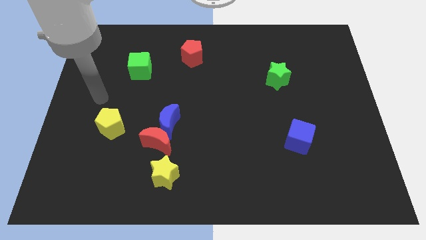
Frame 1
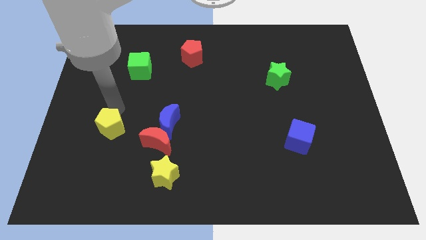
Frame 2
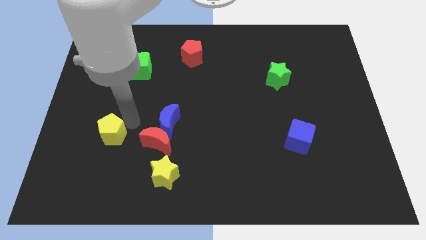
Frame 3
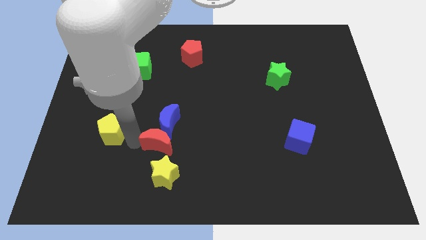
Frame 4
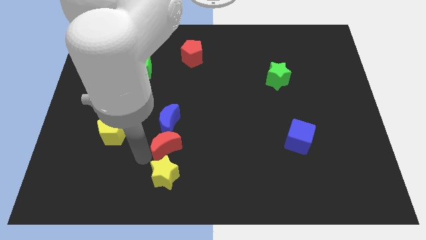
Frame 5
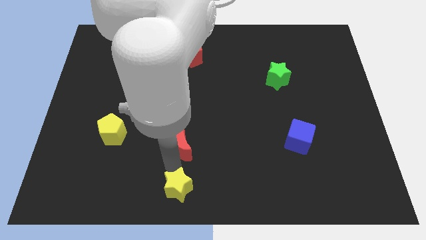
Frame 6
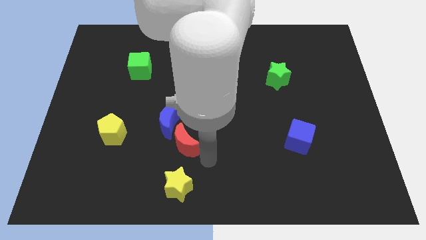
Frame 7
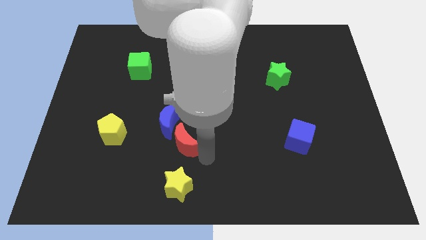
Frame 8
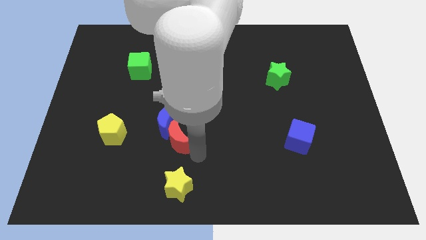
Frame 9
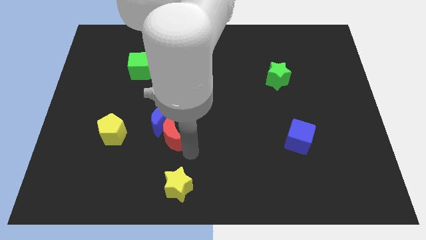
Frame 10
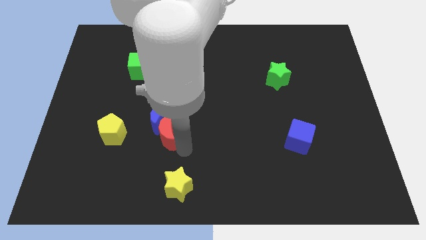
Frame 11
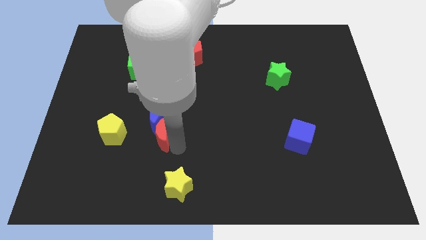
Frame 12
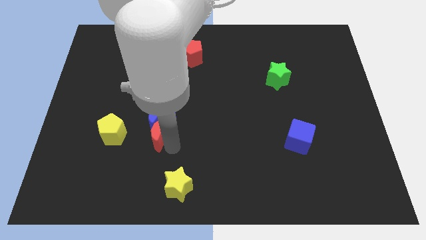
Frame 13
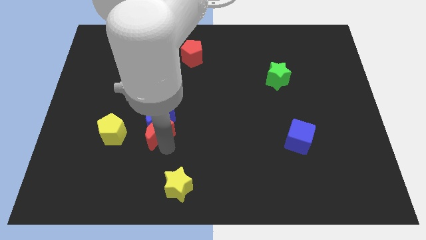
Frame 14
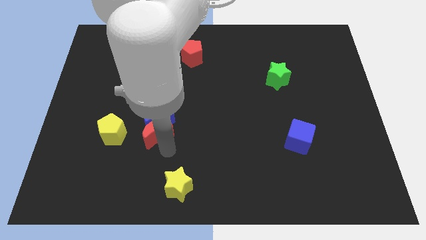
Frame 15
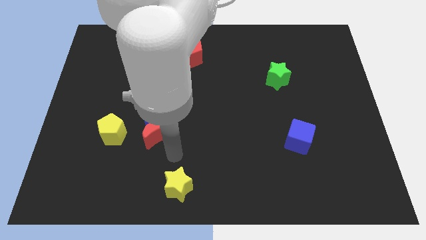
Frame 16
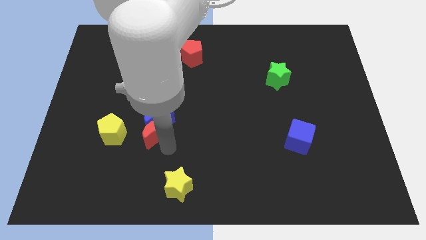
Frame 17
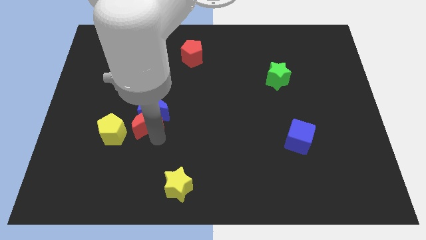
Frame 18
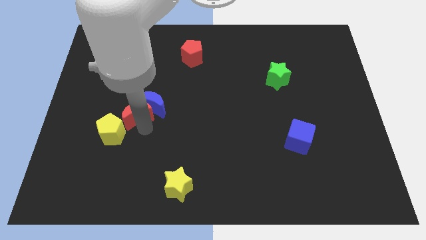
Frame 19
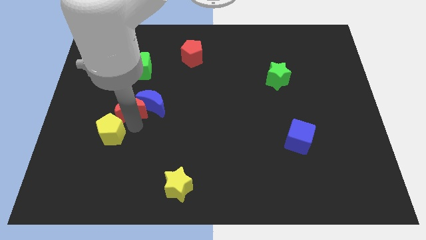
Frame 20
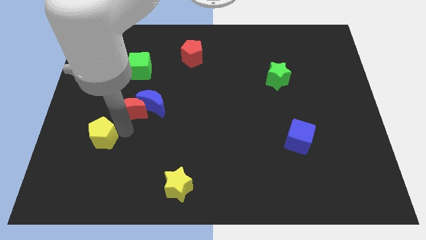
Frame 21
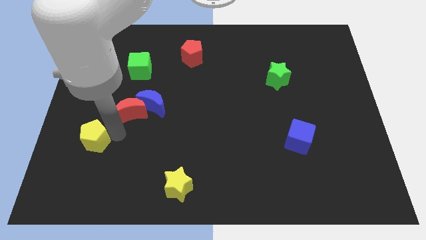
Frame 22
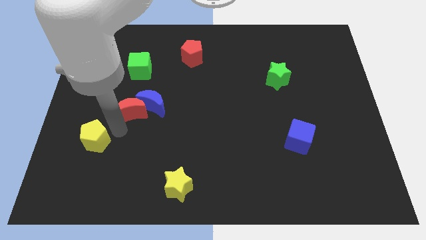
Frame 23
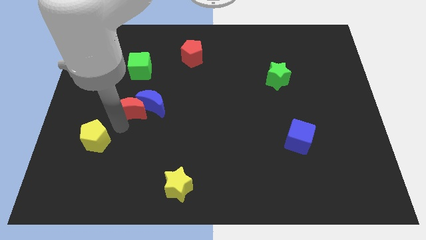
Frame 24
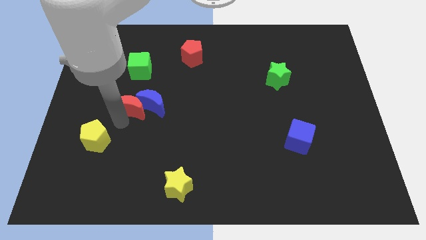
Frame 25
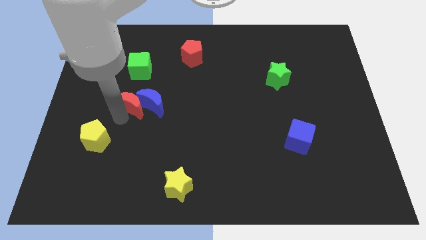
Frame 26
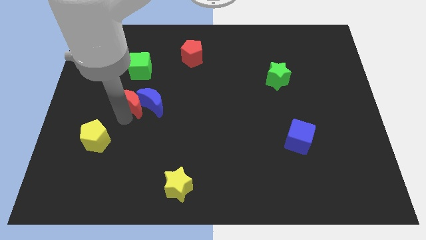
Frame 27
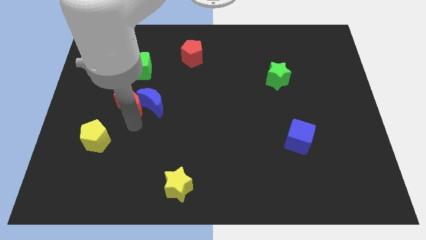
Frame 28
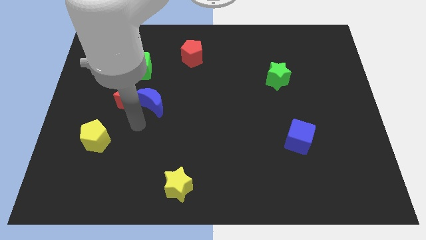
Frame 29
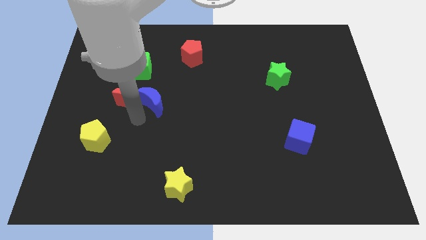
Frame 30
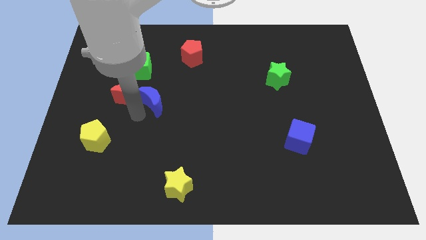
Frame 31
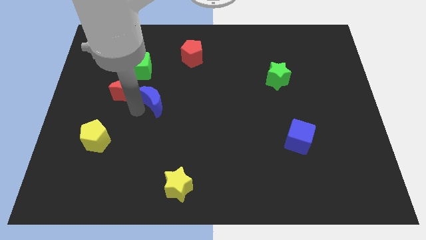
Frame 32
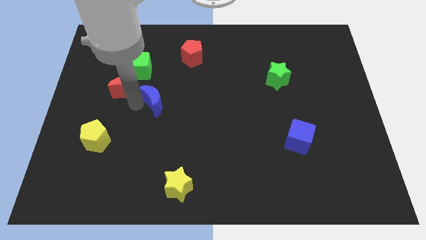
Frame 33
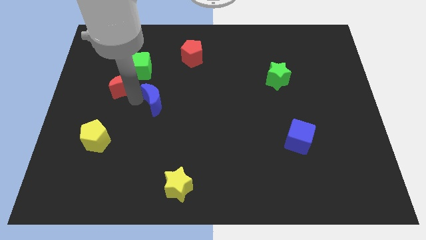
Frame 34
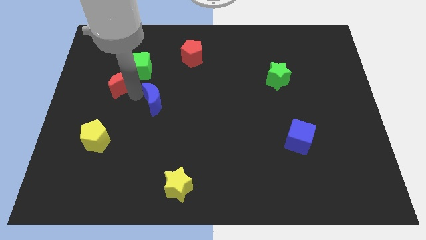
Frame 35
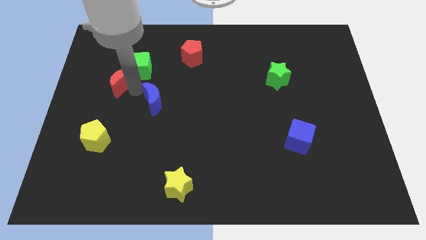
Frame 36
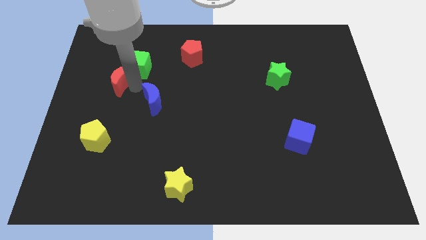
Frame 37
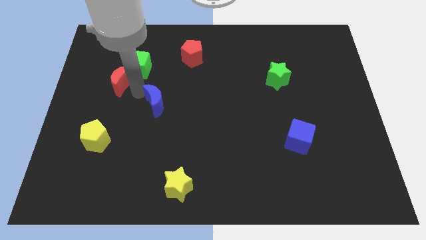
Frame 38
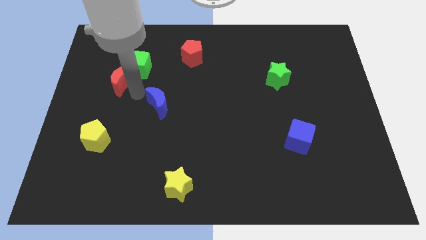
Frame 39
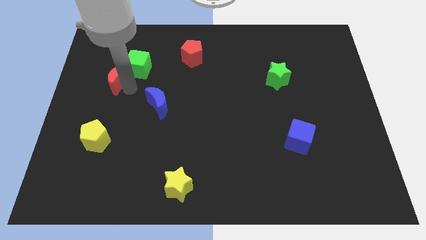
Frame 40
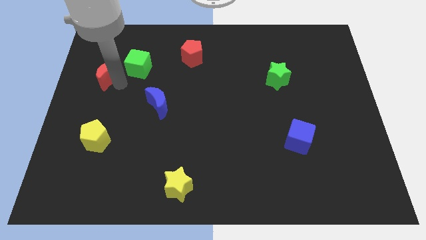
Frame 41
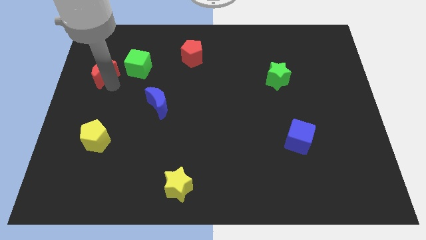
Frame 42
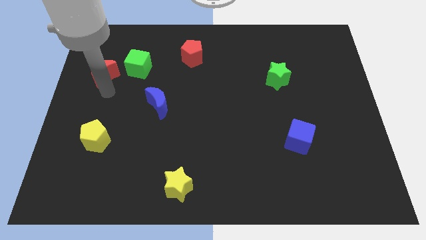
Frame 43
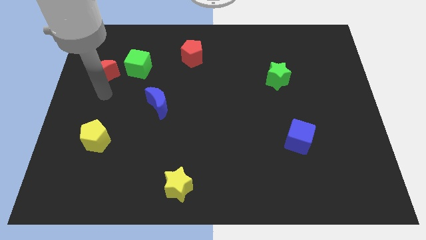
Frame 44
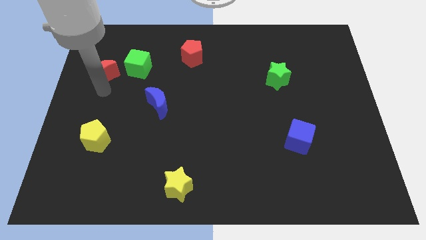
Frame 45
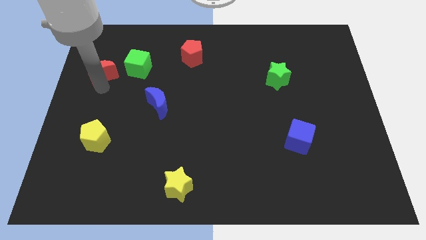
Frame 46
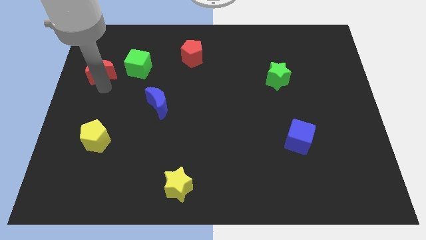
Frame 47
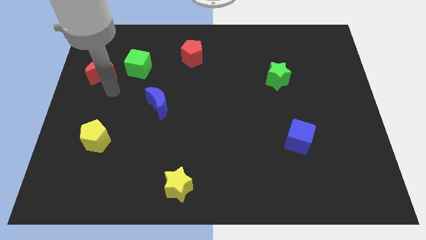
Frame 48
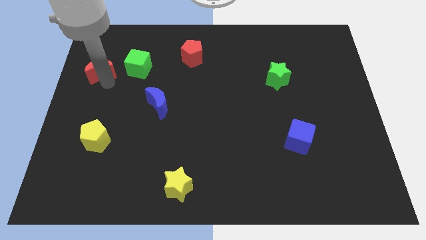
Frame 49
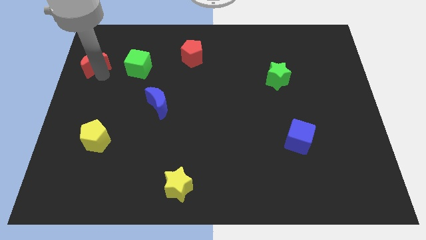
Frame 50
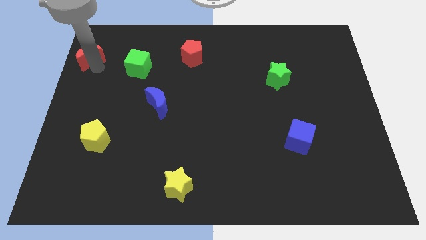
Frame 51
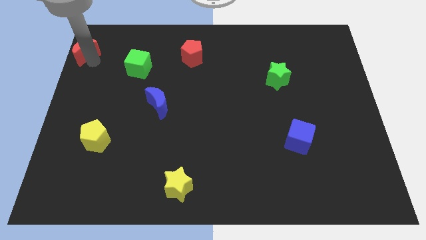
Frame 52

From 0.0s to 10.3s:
push the red moon to the top left of the board

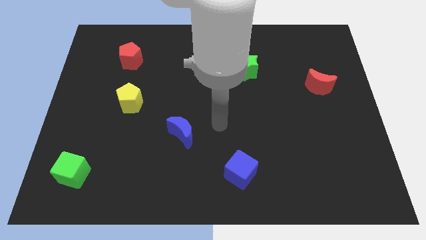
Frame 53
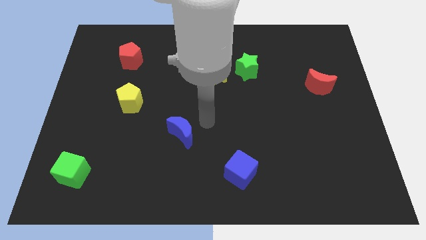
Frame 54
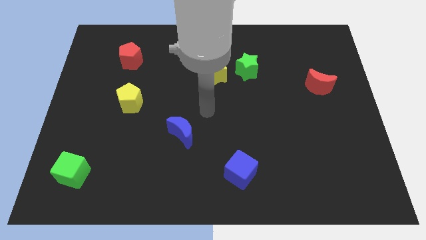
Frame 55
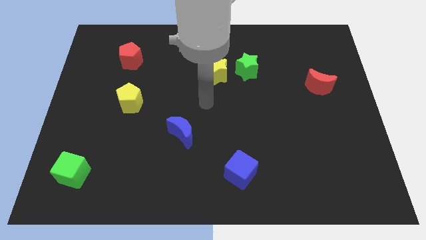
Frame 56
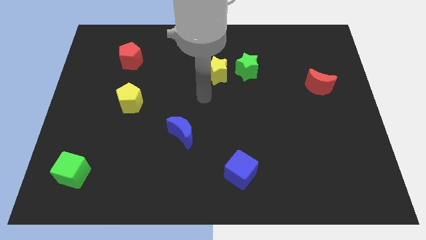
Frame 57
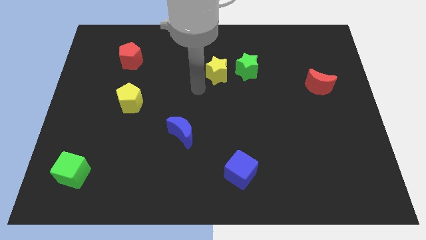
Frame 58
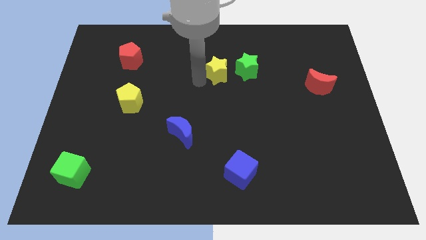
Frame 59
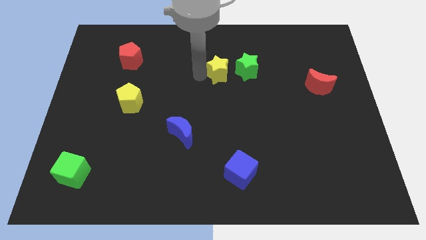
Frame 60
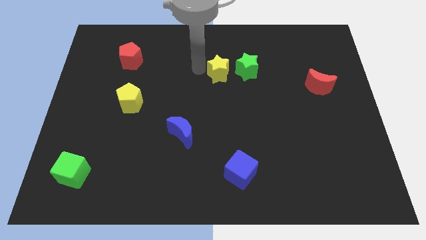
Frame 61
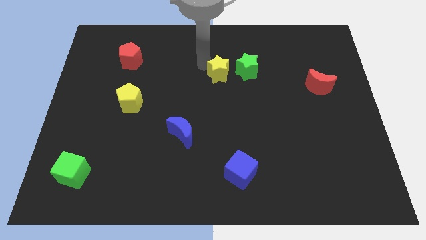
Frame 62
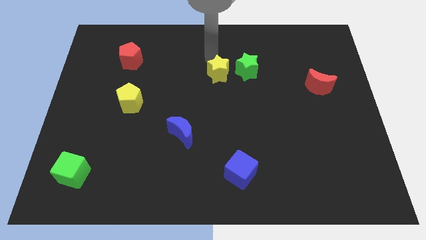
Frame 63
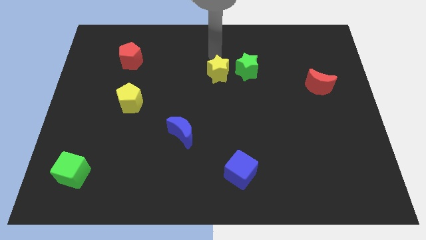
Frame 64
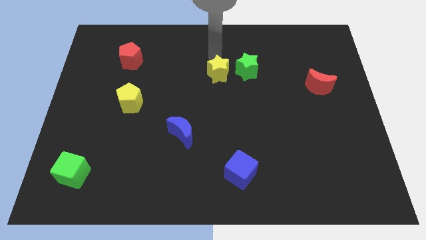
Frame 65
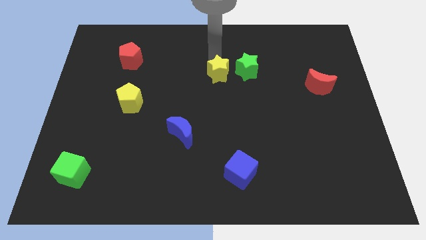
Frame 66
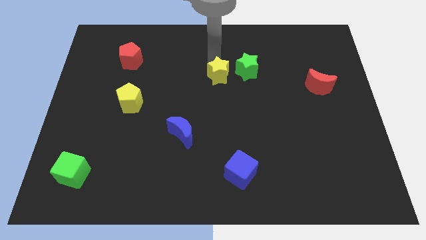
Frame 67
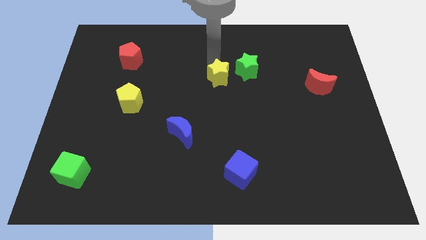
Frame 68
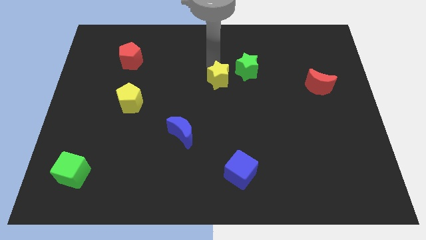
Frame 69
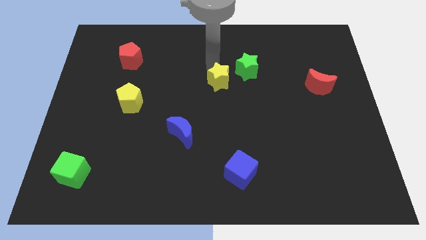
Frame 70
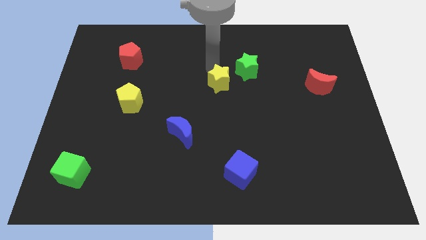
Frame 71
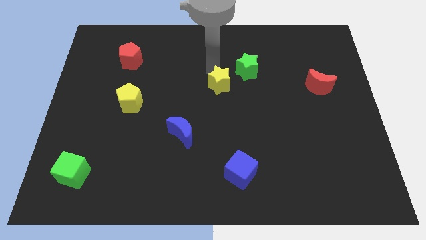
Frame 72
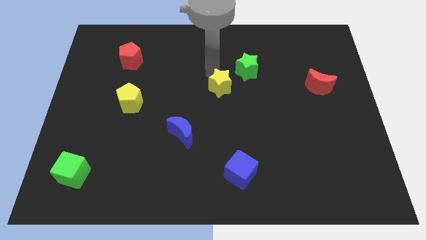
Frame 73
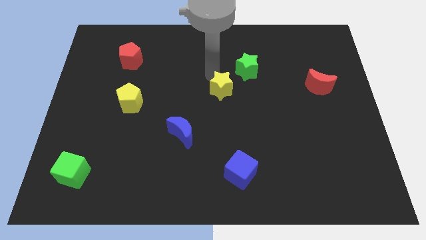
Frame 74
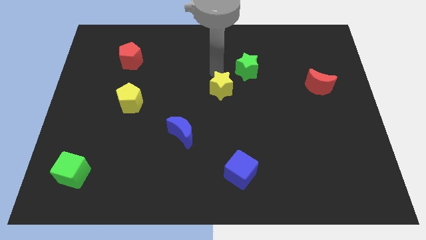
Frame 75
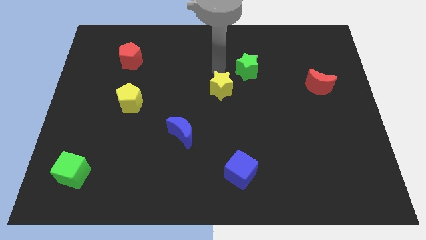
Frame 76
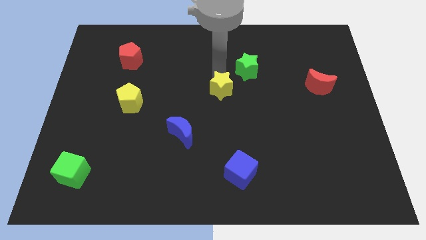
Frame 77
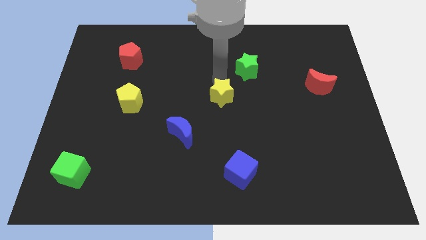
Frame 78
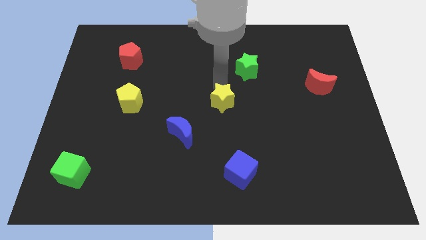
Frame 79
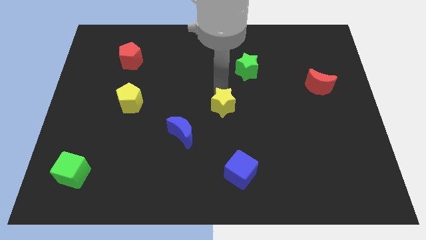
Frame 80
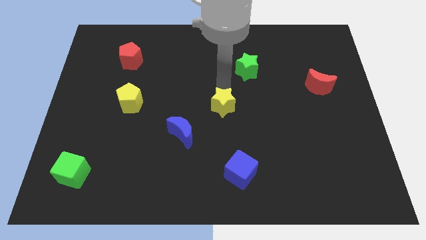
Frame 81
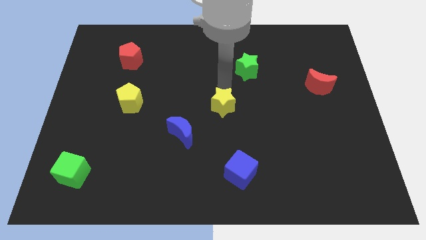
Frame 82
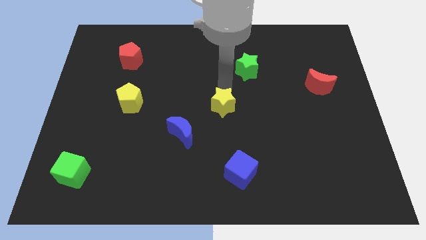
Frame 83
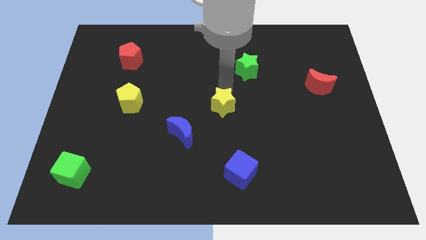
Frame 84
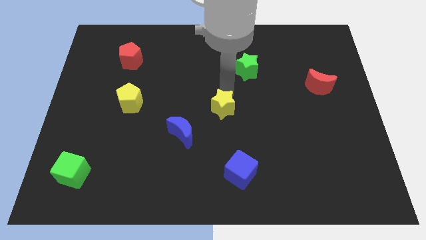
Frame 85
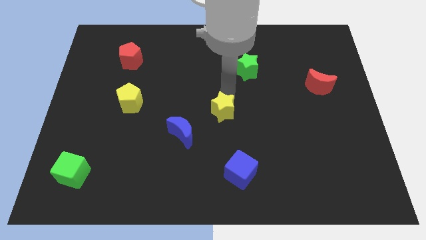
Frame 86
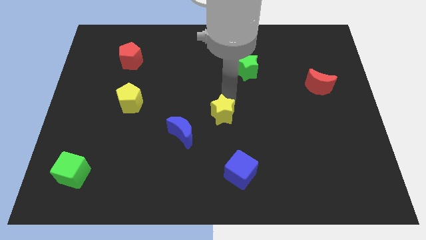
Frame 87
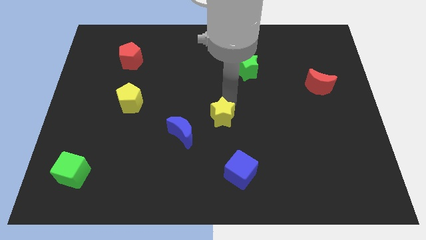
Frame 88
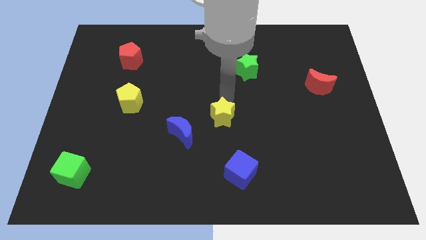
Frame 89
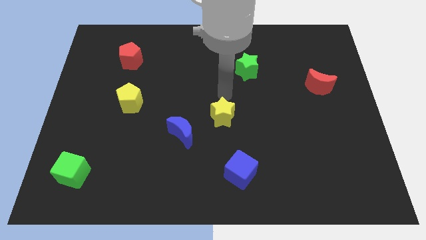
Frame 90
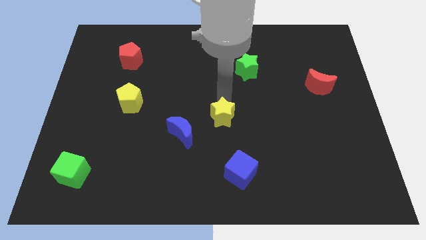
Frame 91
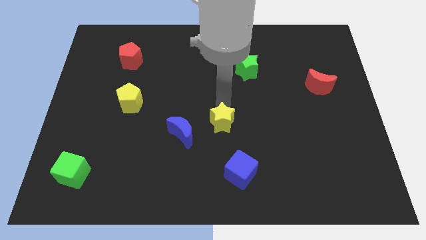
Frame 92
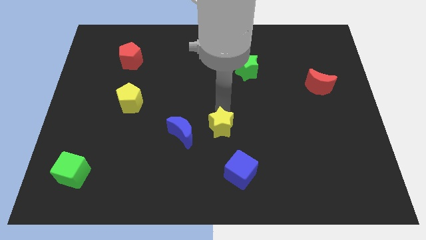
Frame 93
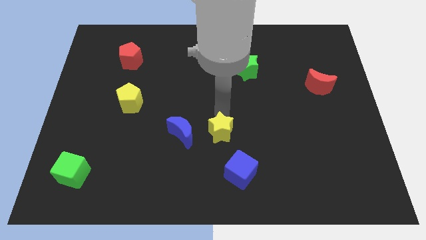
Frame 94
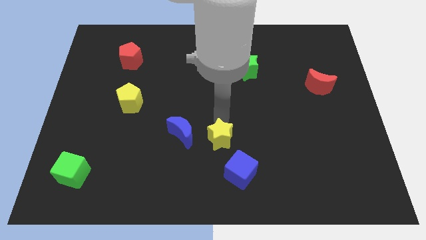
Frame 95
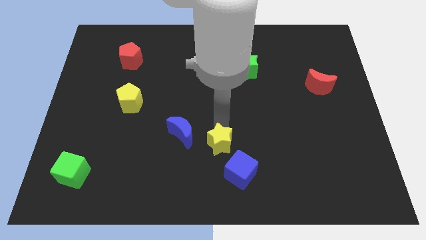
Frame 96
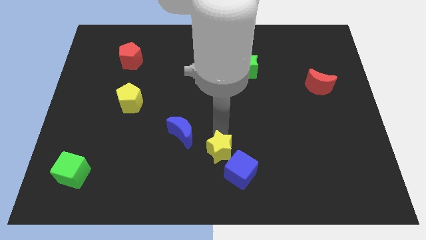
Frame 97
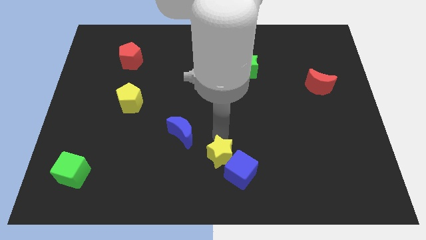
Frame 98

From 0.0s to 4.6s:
put the yellow star to the bottom
